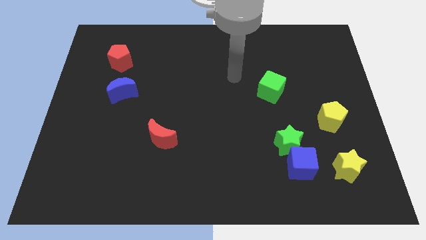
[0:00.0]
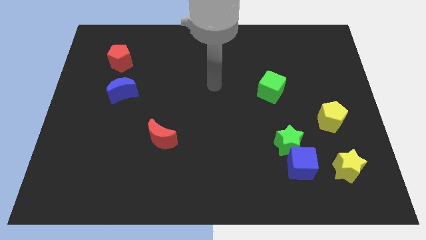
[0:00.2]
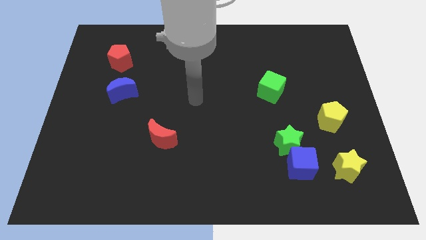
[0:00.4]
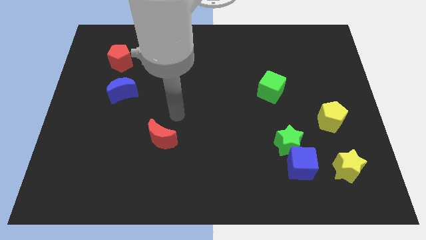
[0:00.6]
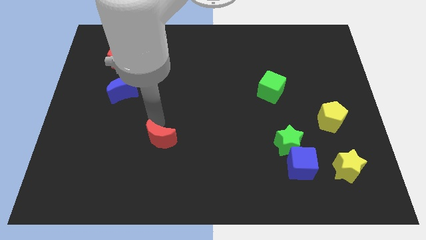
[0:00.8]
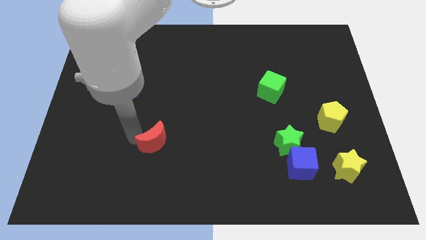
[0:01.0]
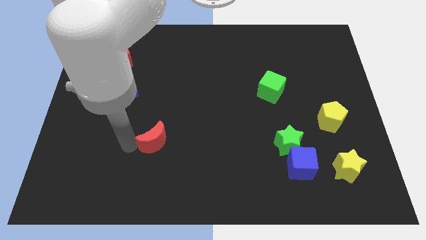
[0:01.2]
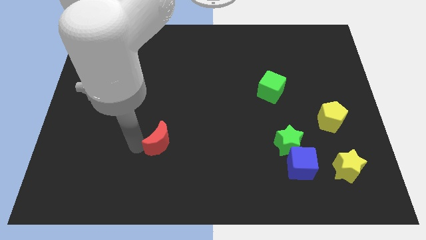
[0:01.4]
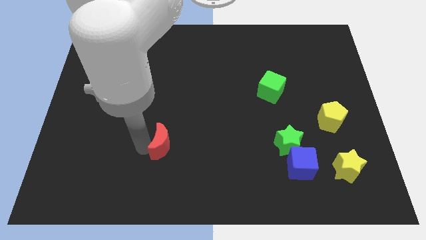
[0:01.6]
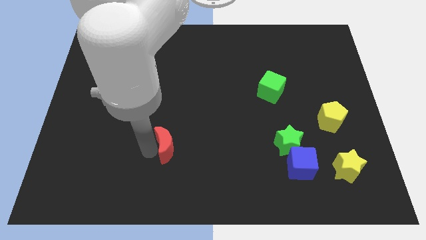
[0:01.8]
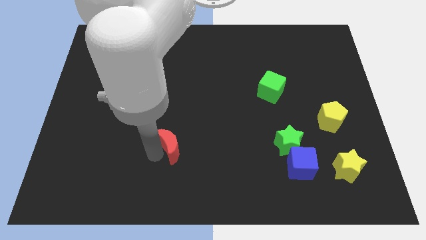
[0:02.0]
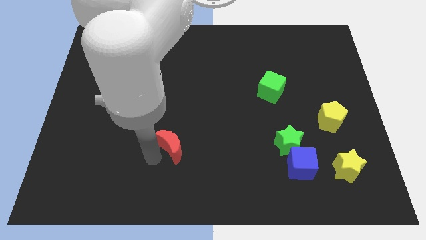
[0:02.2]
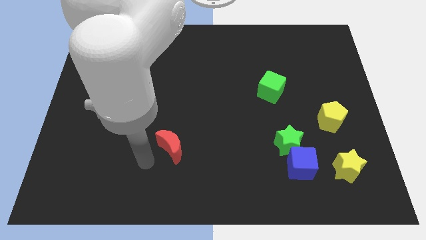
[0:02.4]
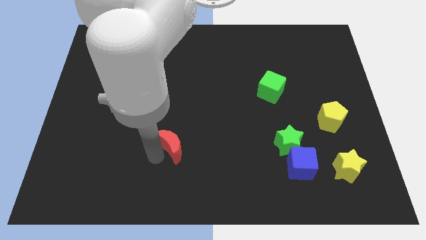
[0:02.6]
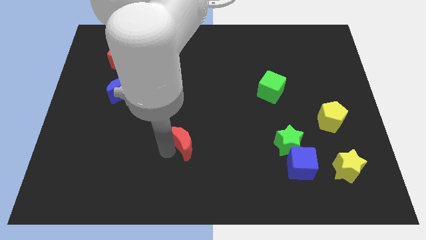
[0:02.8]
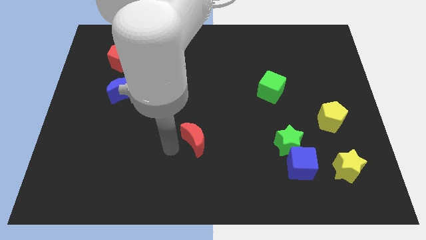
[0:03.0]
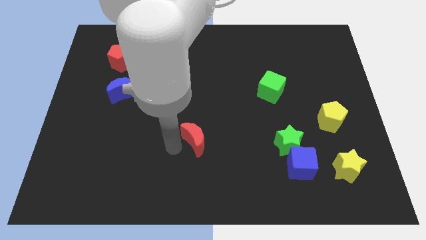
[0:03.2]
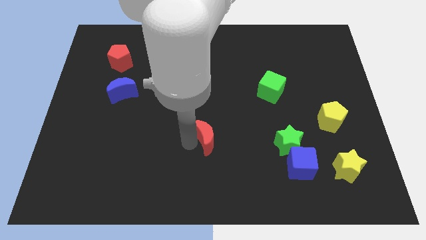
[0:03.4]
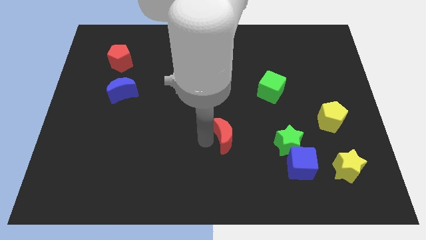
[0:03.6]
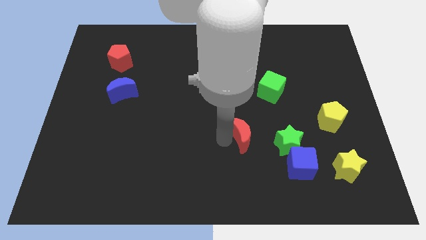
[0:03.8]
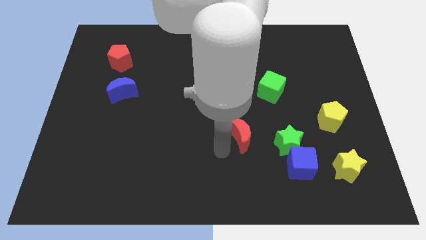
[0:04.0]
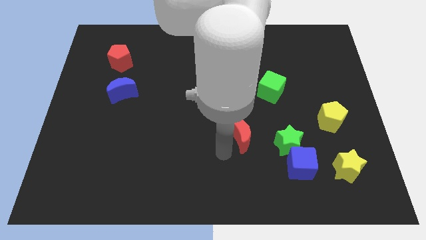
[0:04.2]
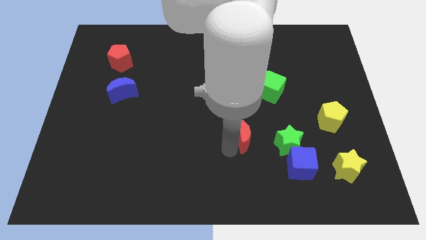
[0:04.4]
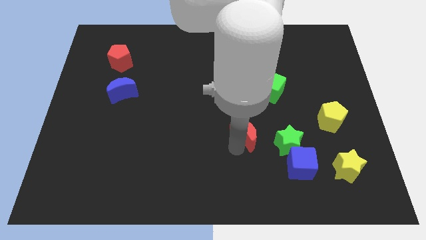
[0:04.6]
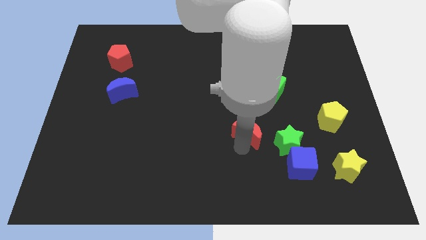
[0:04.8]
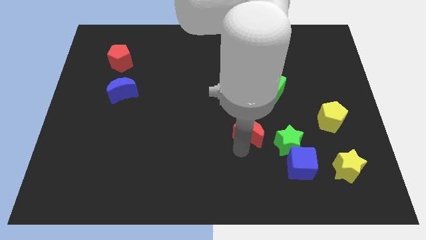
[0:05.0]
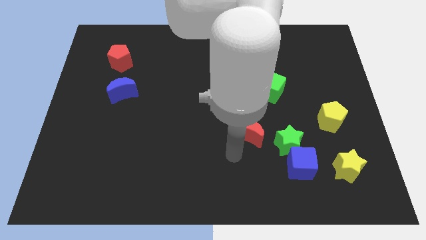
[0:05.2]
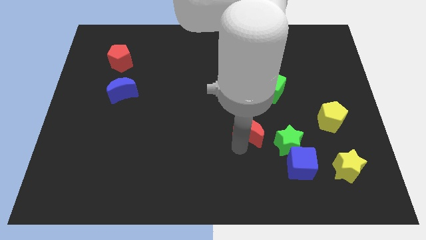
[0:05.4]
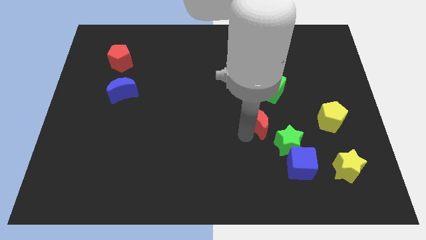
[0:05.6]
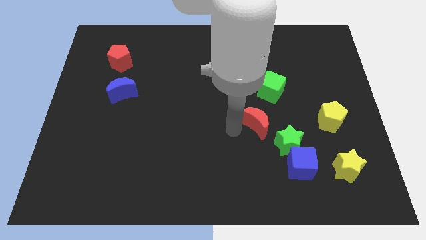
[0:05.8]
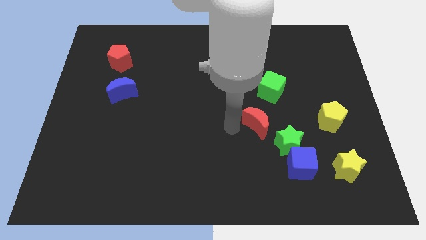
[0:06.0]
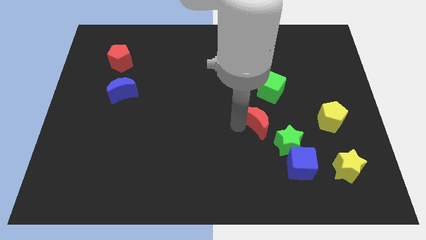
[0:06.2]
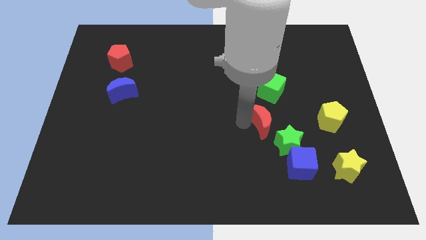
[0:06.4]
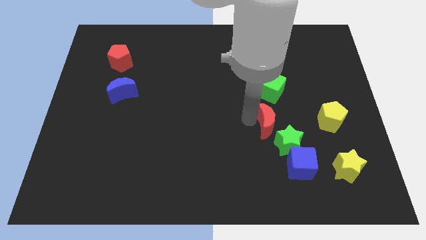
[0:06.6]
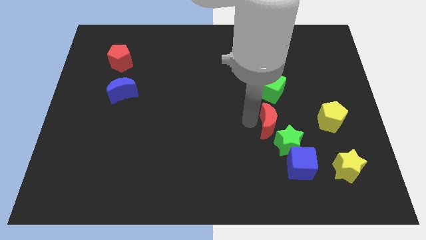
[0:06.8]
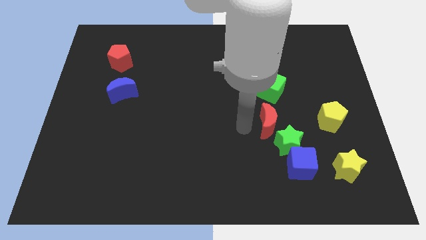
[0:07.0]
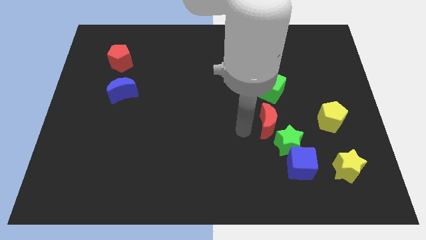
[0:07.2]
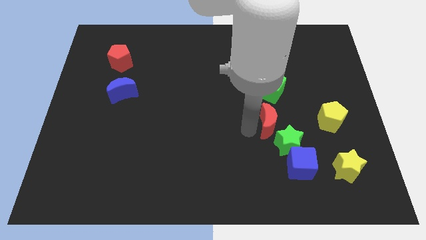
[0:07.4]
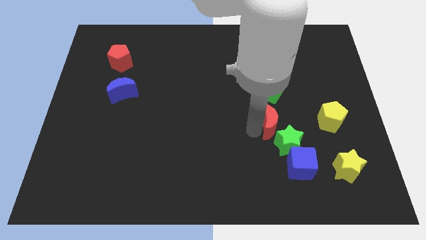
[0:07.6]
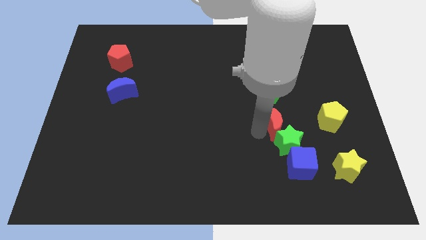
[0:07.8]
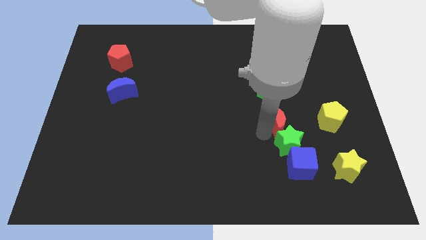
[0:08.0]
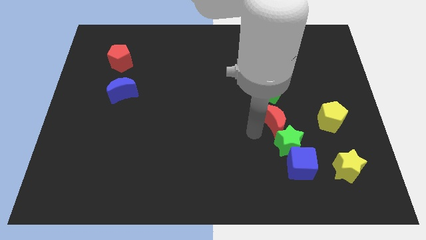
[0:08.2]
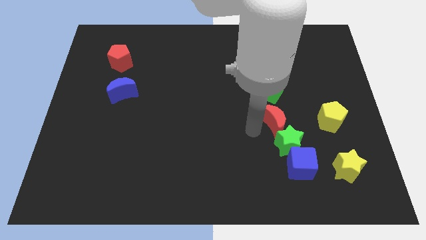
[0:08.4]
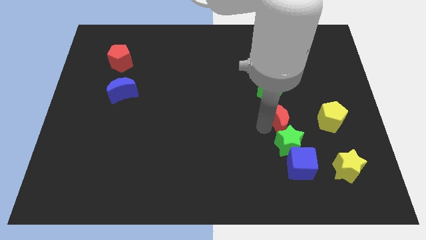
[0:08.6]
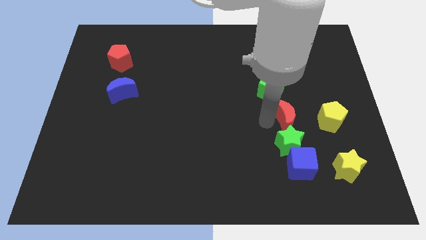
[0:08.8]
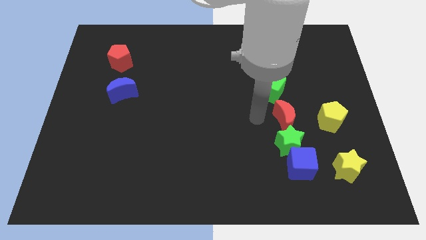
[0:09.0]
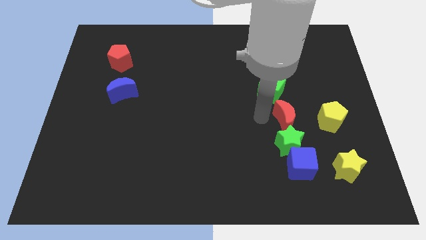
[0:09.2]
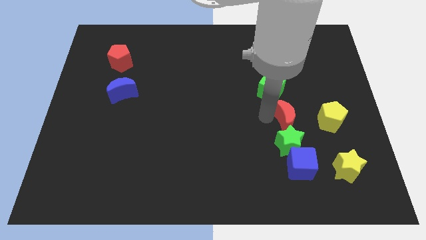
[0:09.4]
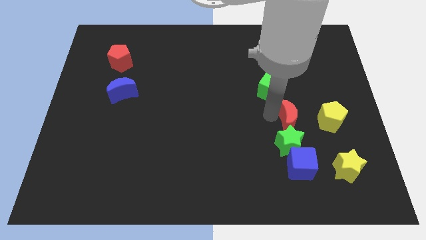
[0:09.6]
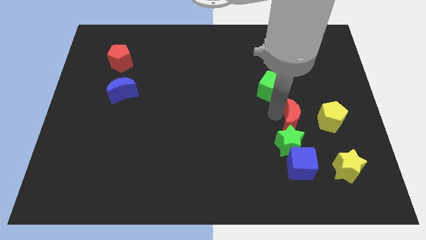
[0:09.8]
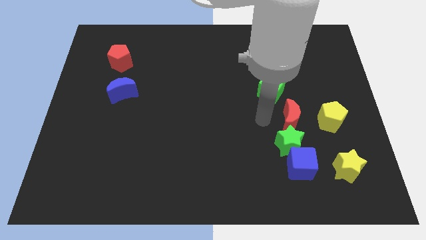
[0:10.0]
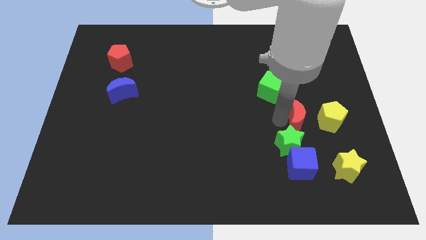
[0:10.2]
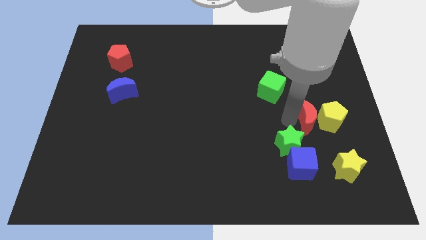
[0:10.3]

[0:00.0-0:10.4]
move the red moon towards the yellow pentagon

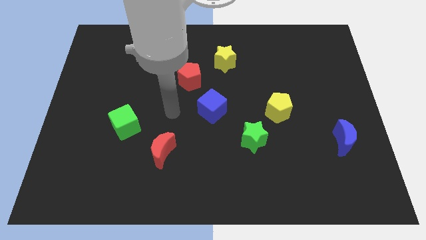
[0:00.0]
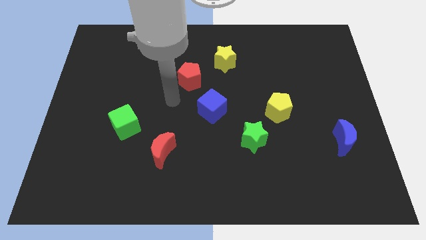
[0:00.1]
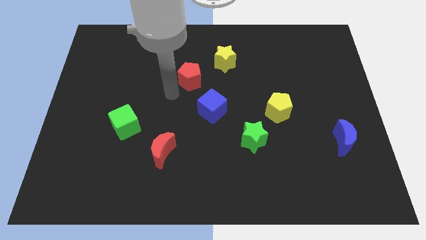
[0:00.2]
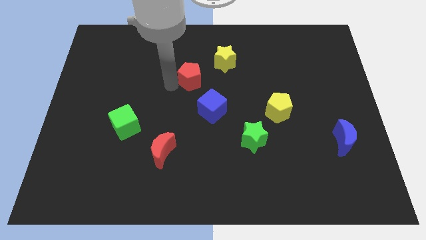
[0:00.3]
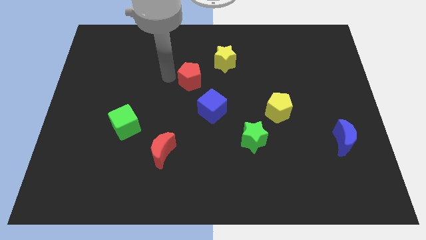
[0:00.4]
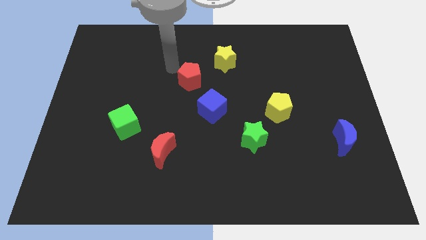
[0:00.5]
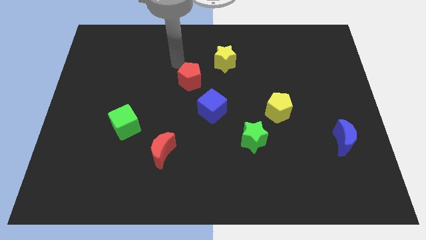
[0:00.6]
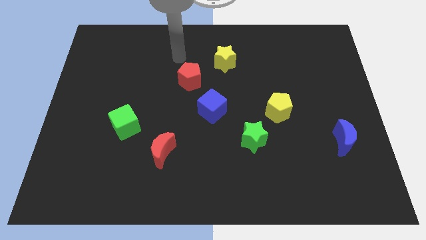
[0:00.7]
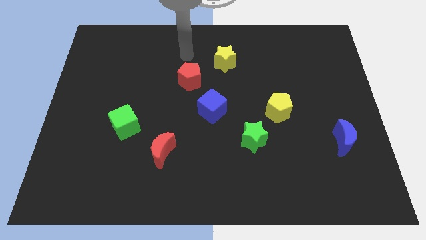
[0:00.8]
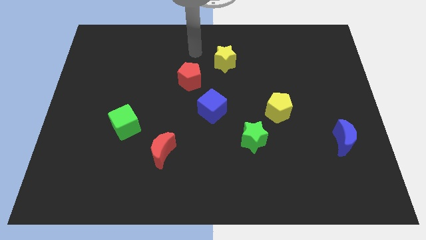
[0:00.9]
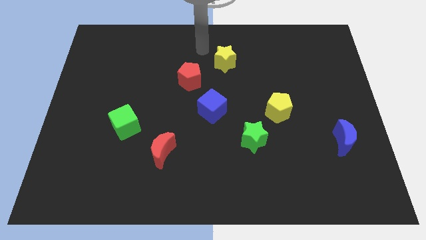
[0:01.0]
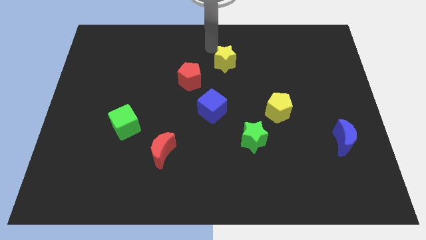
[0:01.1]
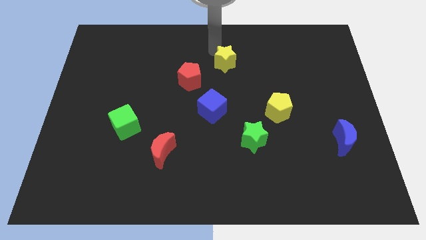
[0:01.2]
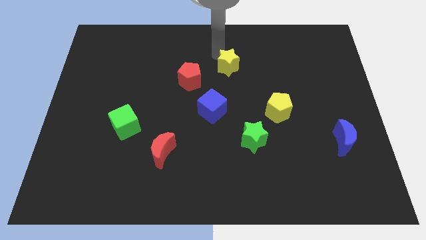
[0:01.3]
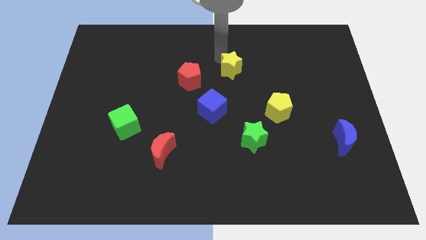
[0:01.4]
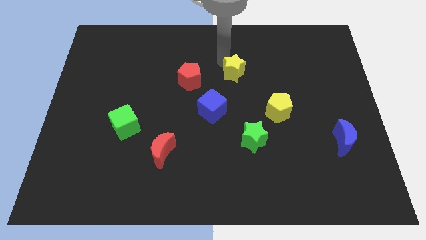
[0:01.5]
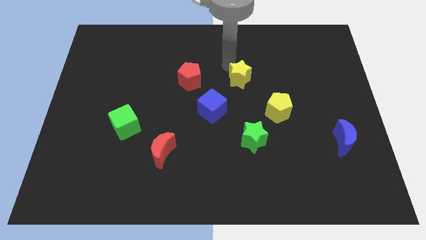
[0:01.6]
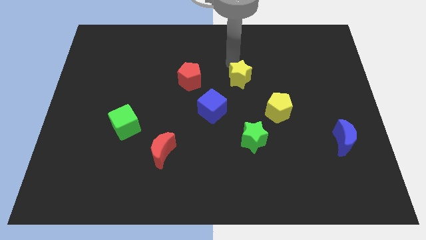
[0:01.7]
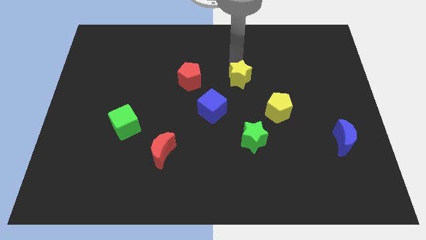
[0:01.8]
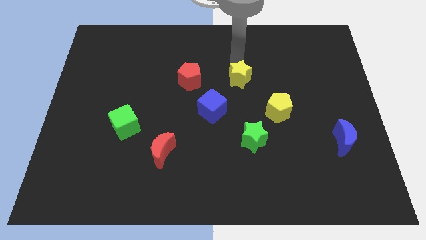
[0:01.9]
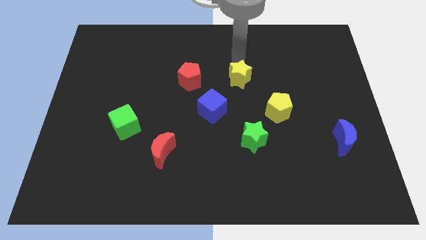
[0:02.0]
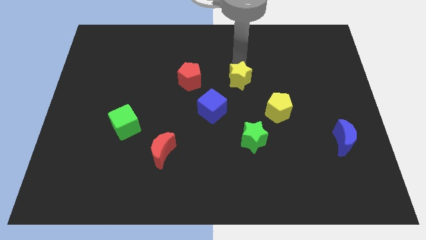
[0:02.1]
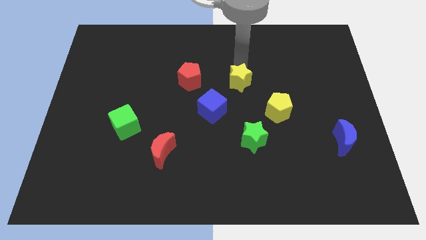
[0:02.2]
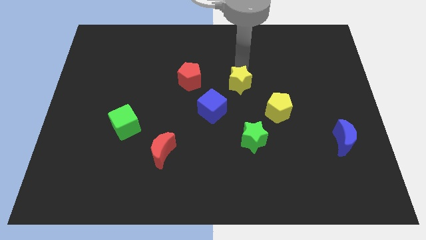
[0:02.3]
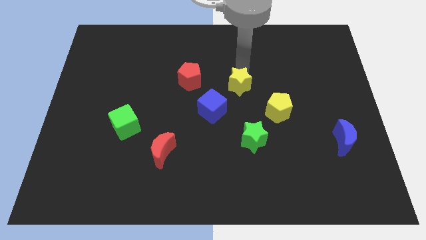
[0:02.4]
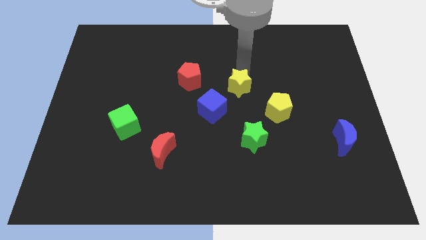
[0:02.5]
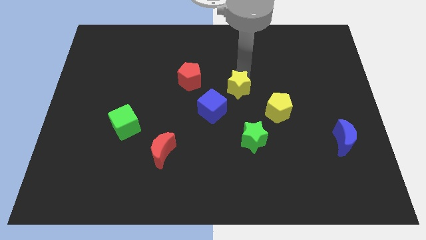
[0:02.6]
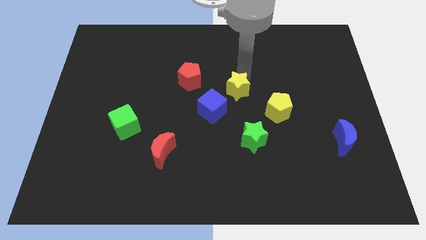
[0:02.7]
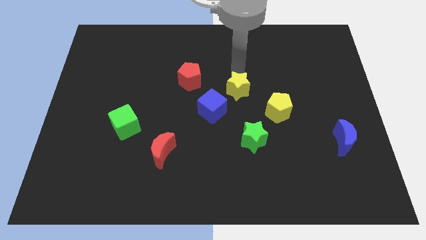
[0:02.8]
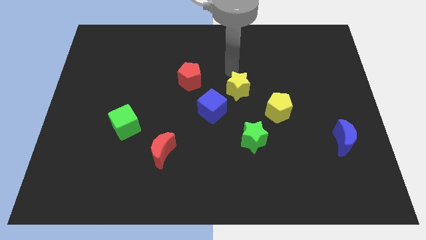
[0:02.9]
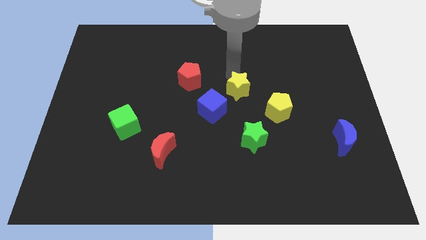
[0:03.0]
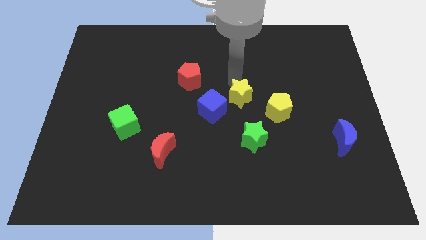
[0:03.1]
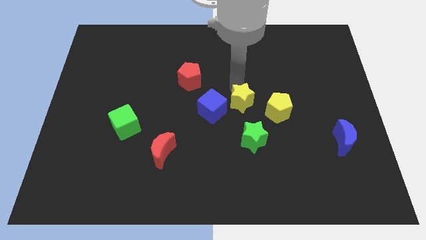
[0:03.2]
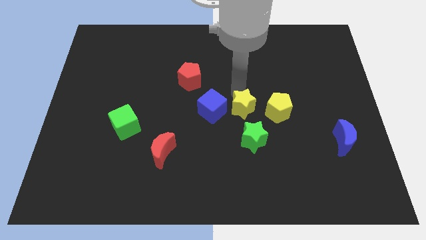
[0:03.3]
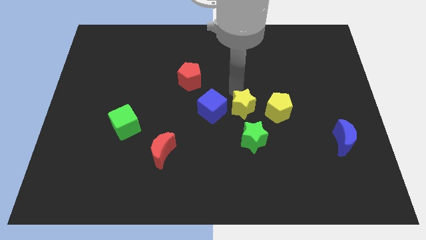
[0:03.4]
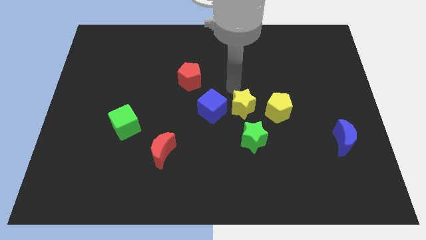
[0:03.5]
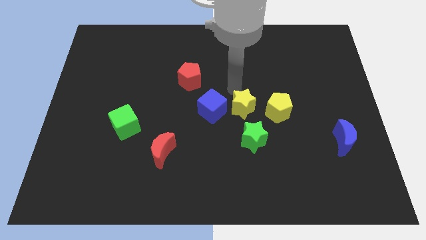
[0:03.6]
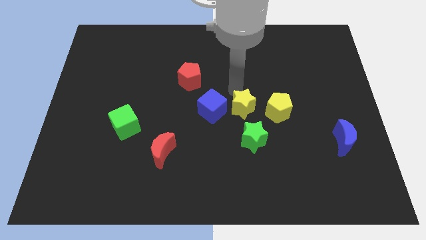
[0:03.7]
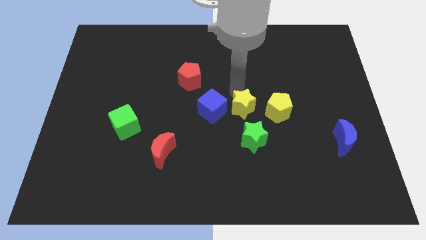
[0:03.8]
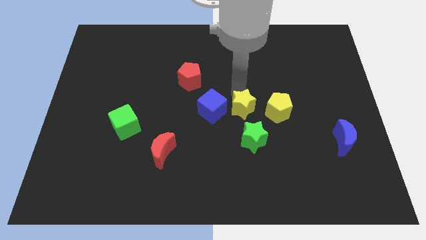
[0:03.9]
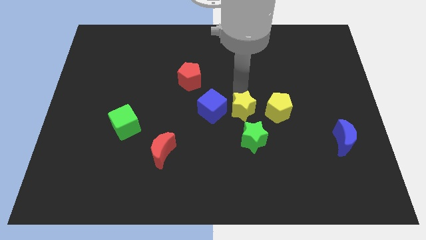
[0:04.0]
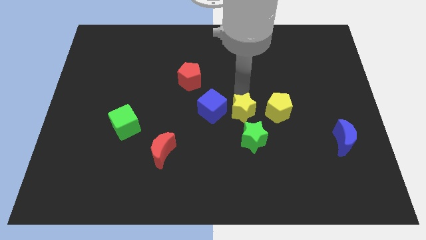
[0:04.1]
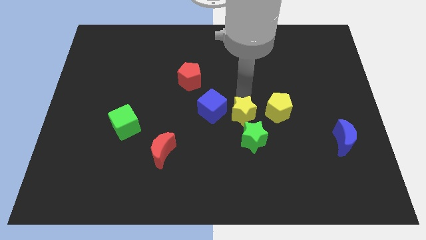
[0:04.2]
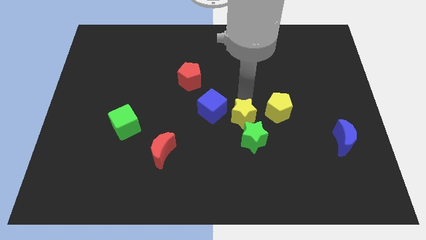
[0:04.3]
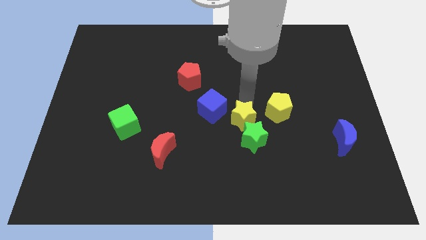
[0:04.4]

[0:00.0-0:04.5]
put the yellow star to the green star
